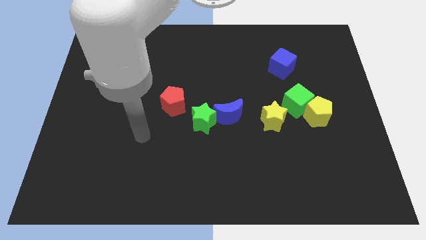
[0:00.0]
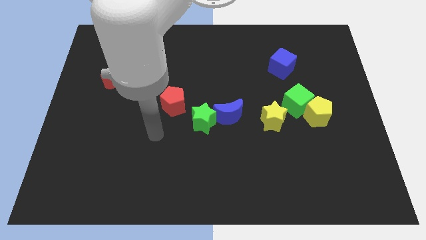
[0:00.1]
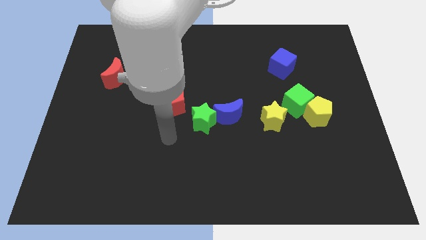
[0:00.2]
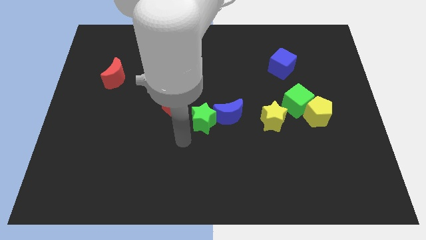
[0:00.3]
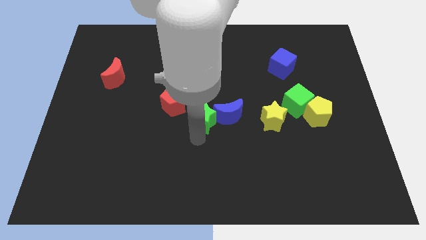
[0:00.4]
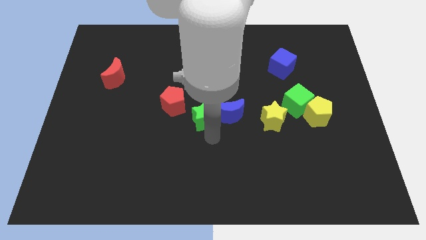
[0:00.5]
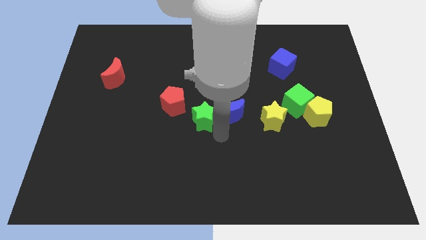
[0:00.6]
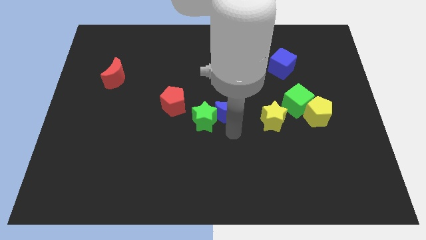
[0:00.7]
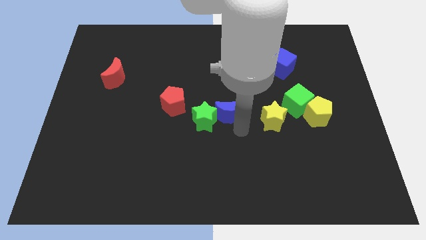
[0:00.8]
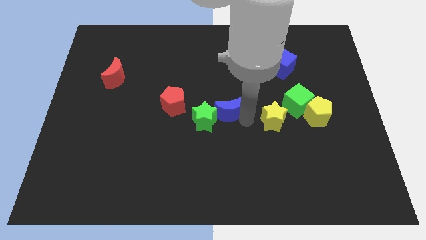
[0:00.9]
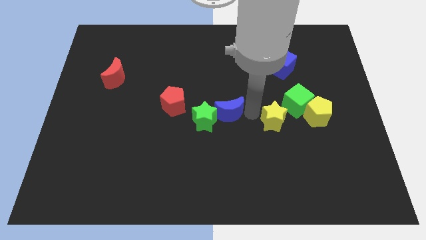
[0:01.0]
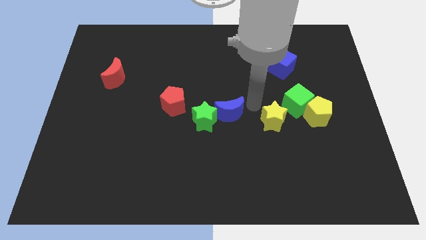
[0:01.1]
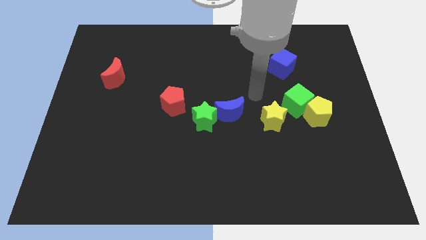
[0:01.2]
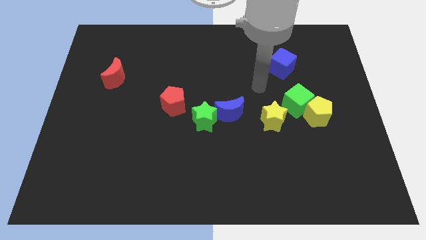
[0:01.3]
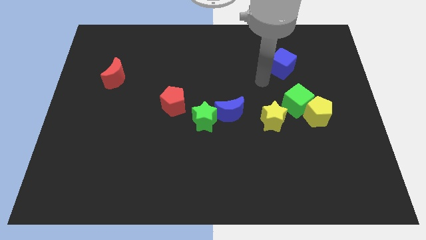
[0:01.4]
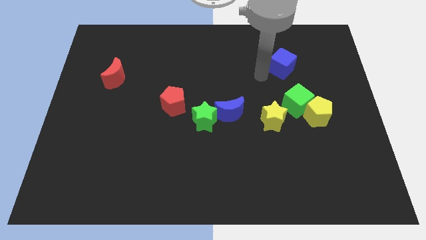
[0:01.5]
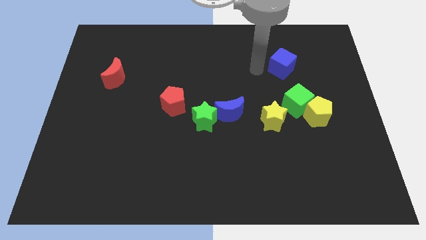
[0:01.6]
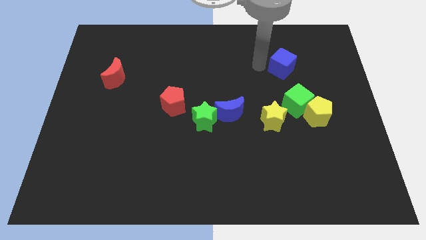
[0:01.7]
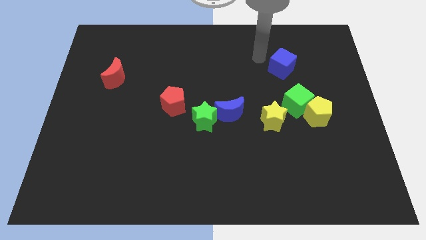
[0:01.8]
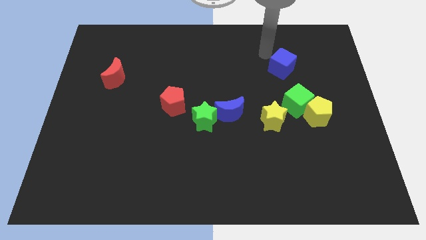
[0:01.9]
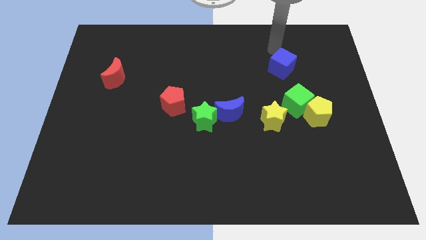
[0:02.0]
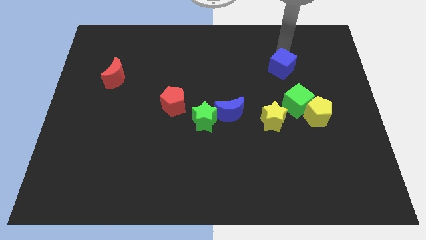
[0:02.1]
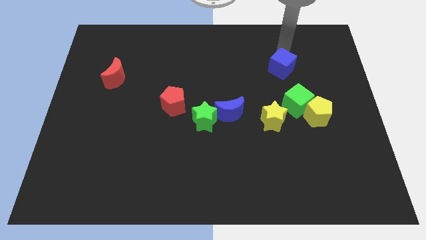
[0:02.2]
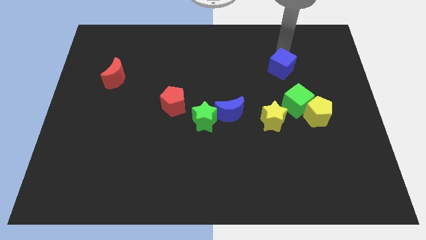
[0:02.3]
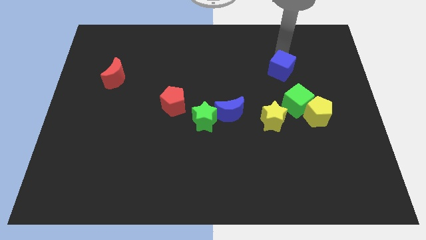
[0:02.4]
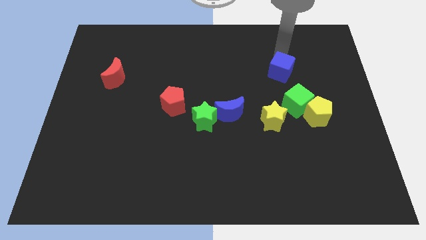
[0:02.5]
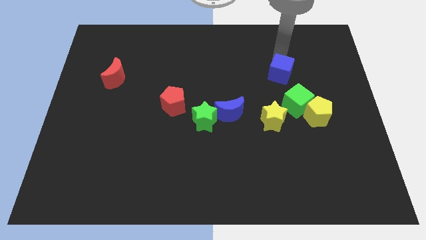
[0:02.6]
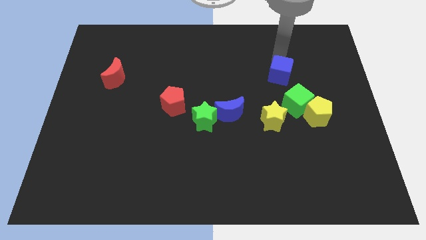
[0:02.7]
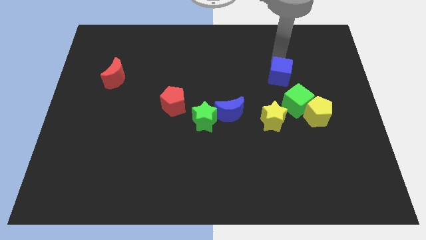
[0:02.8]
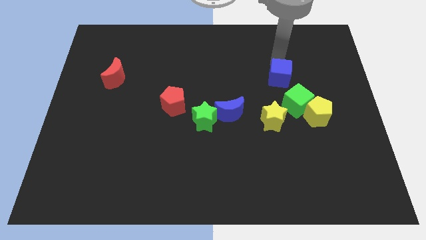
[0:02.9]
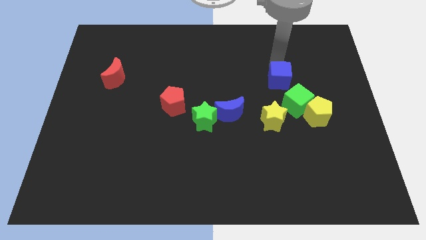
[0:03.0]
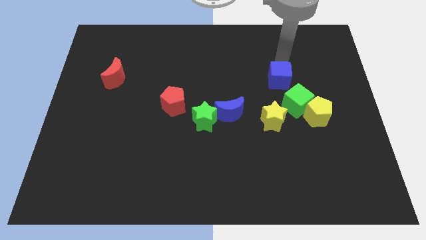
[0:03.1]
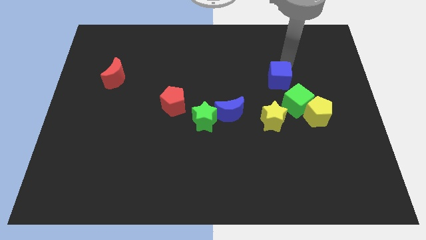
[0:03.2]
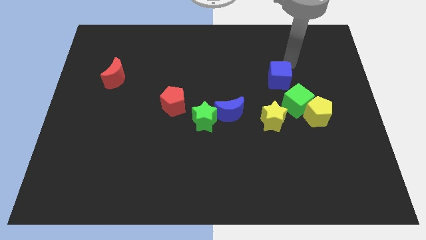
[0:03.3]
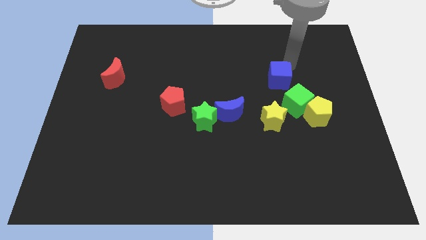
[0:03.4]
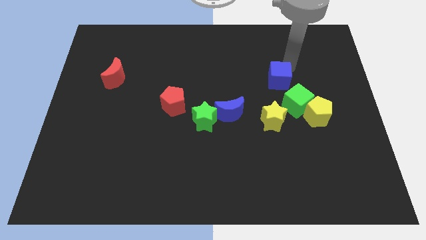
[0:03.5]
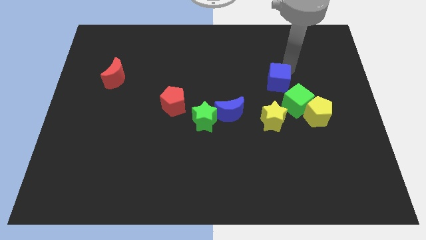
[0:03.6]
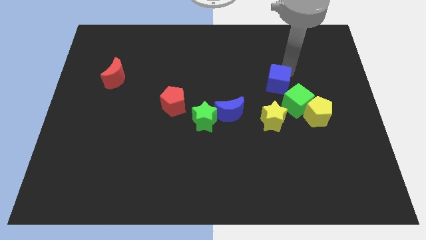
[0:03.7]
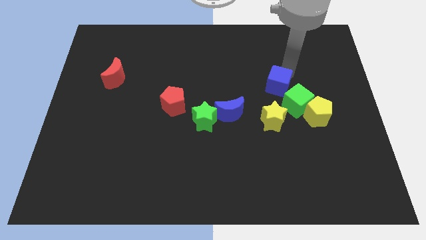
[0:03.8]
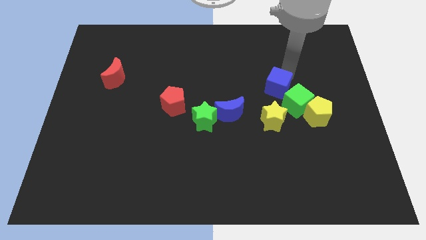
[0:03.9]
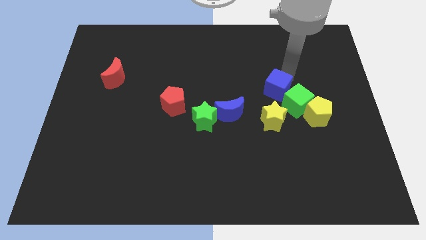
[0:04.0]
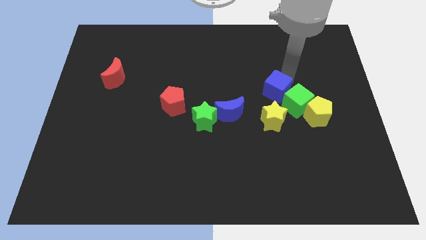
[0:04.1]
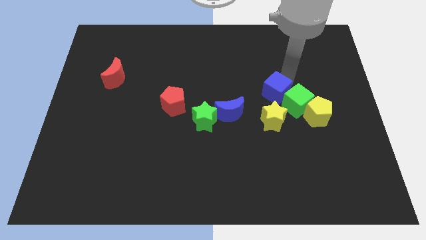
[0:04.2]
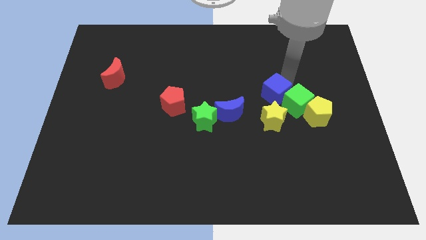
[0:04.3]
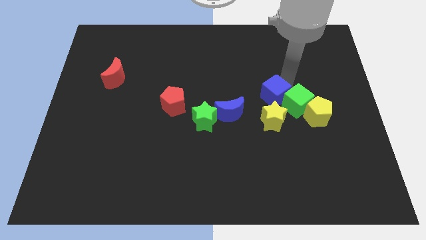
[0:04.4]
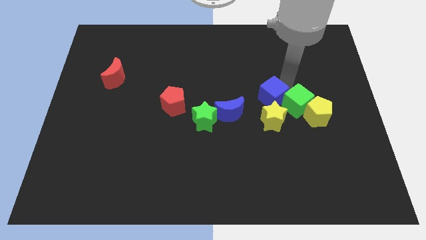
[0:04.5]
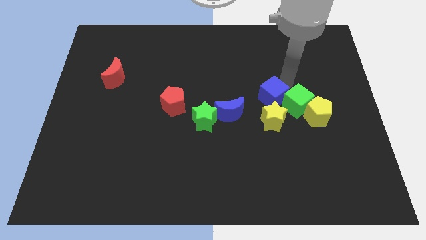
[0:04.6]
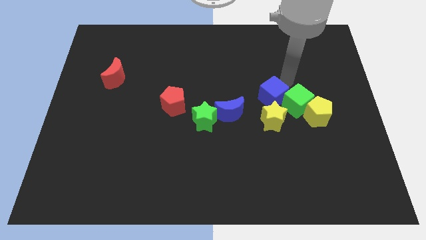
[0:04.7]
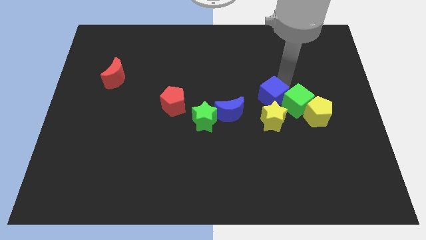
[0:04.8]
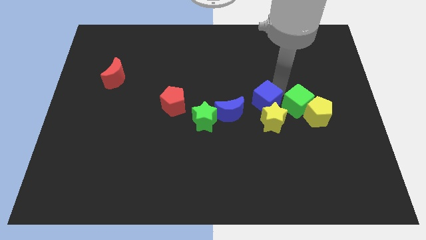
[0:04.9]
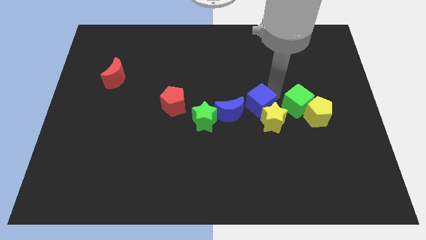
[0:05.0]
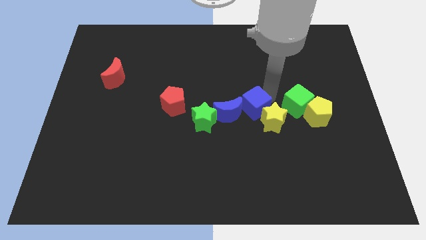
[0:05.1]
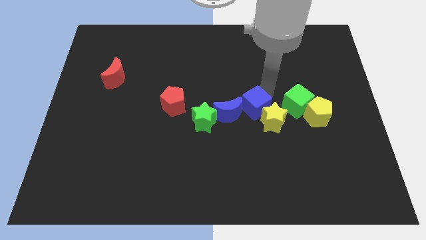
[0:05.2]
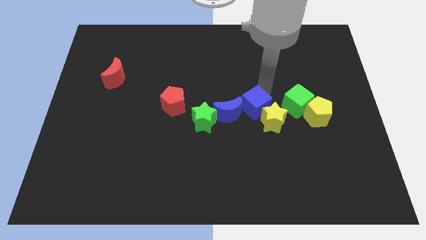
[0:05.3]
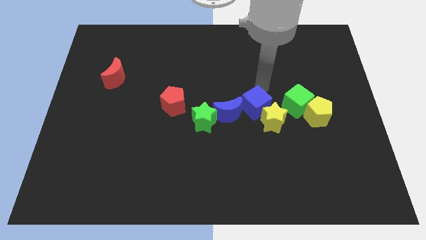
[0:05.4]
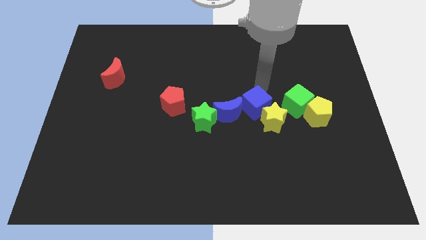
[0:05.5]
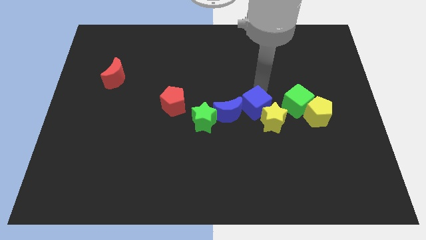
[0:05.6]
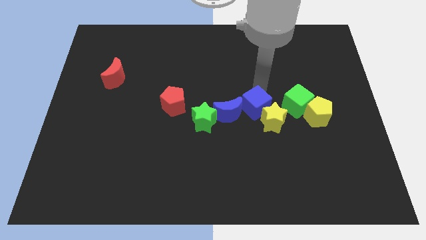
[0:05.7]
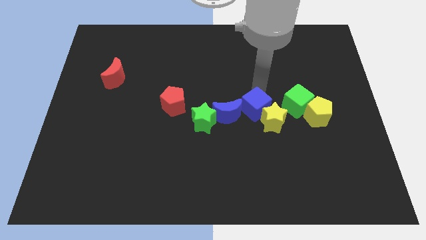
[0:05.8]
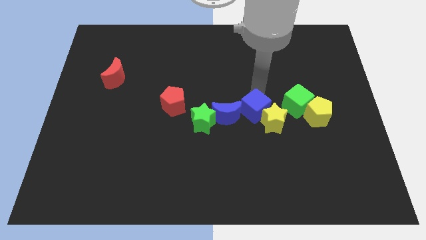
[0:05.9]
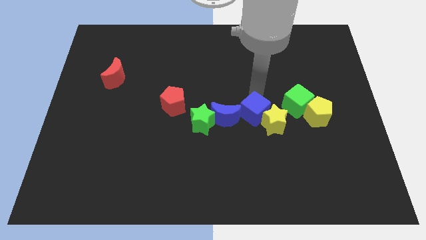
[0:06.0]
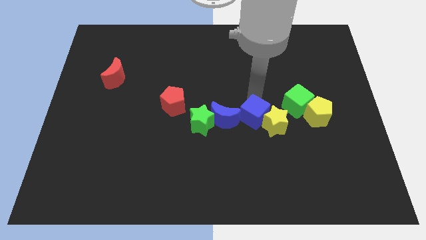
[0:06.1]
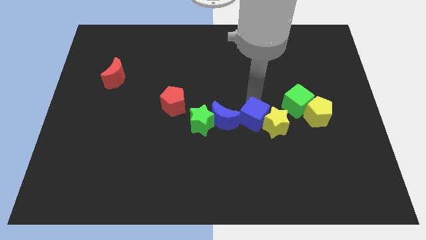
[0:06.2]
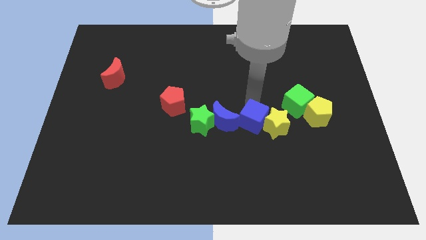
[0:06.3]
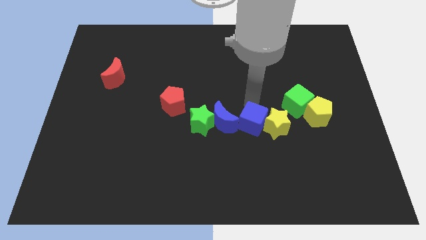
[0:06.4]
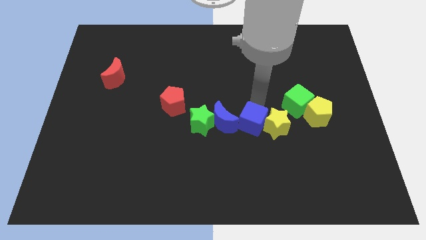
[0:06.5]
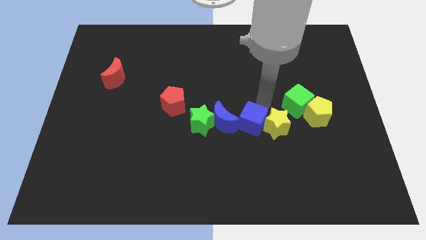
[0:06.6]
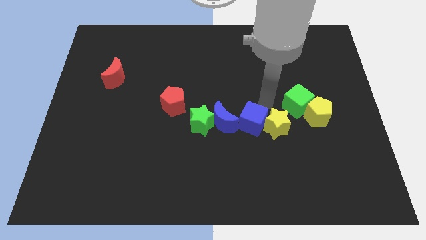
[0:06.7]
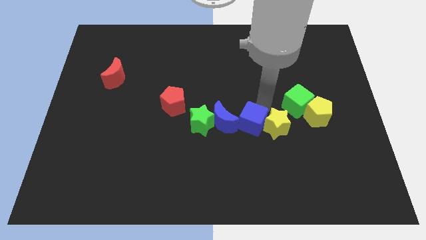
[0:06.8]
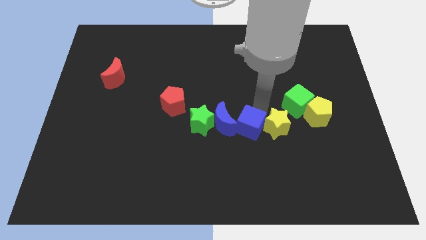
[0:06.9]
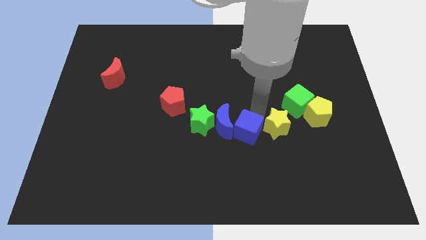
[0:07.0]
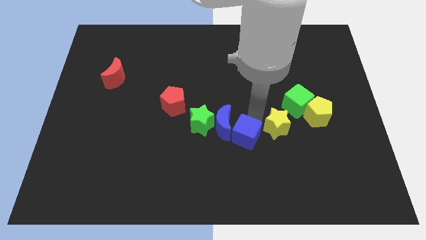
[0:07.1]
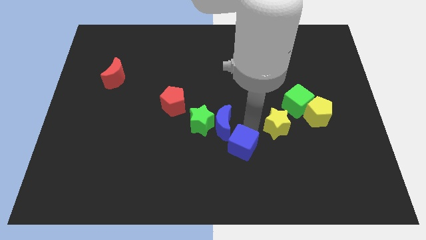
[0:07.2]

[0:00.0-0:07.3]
put the blue cube below the blue moon

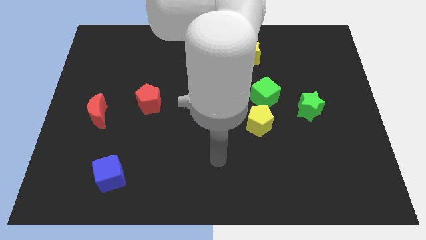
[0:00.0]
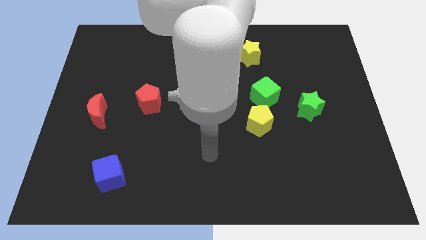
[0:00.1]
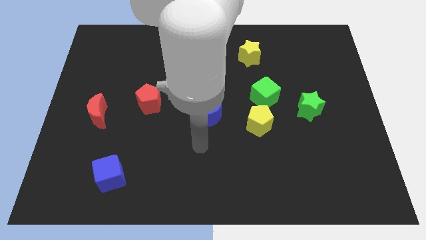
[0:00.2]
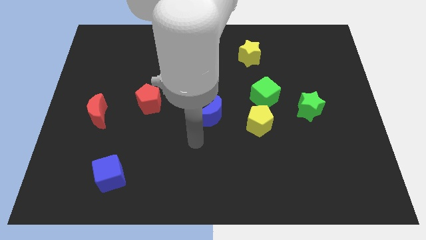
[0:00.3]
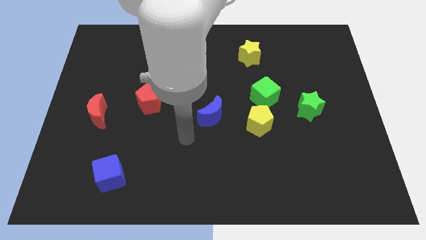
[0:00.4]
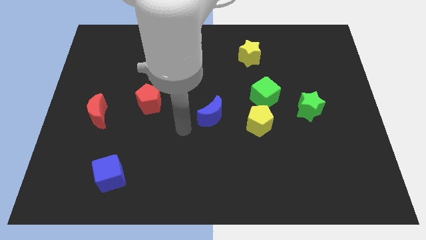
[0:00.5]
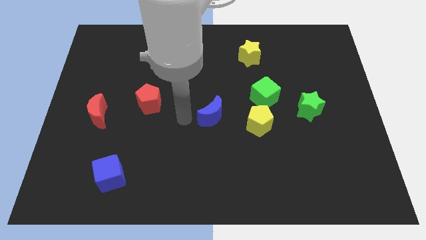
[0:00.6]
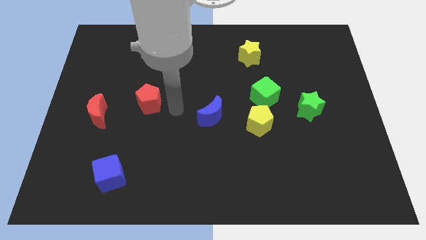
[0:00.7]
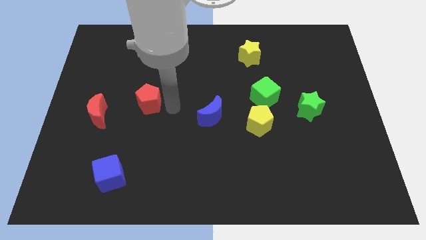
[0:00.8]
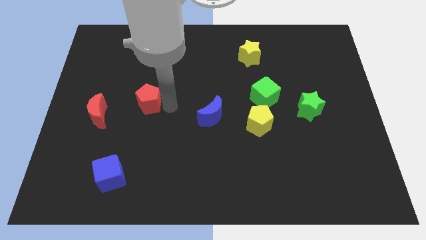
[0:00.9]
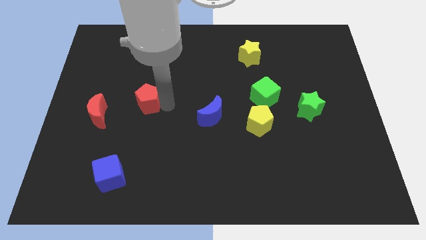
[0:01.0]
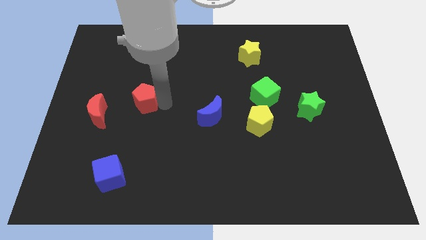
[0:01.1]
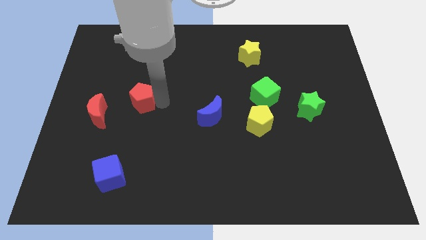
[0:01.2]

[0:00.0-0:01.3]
put the red pentagon diagonally up and to the right of the red moon
